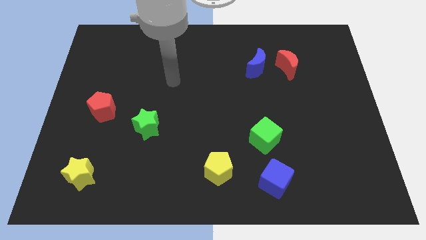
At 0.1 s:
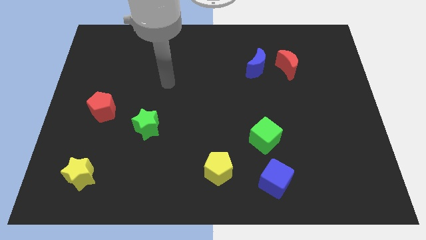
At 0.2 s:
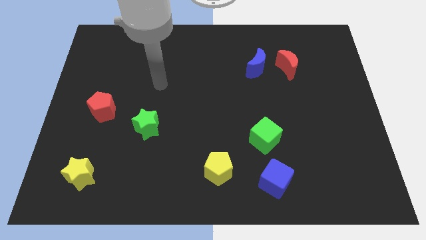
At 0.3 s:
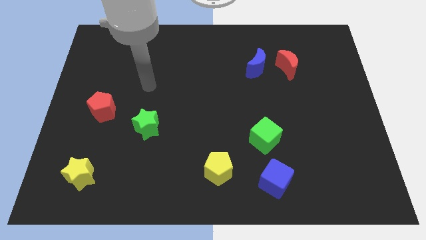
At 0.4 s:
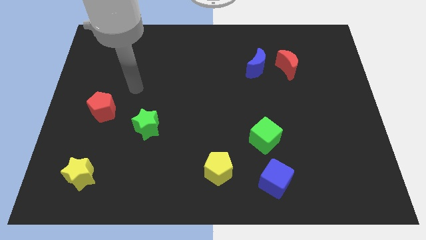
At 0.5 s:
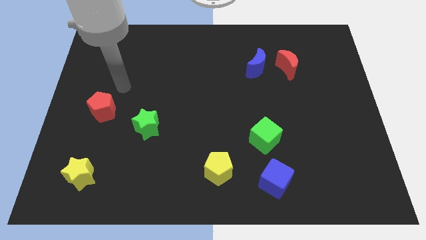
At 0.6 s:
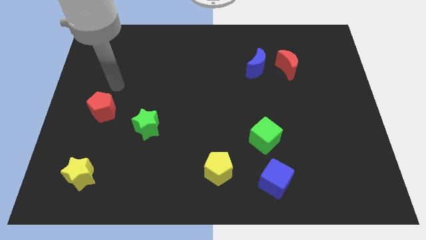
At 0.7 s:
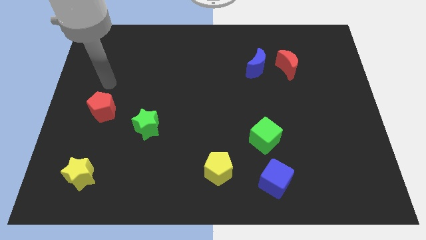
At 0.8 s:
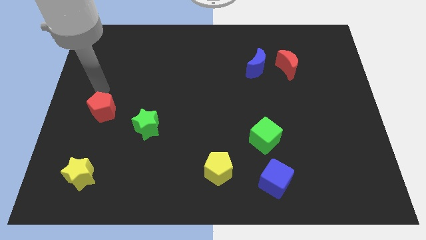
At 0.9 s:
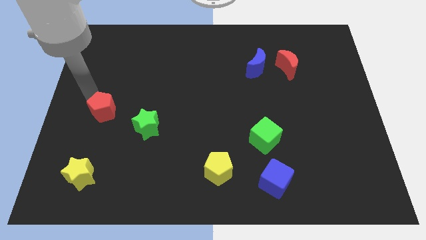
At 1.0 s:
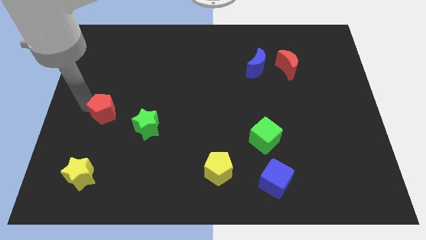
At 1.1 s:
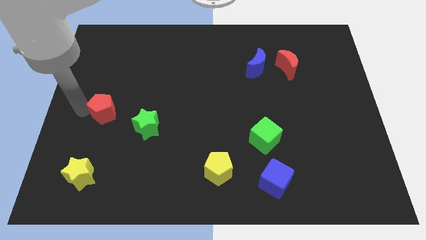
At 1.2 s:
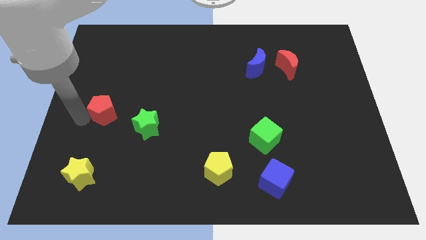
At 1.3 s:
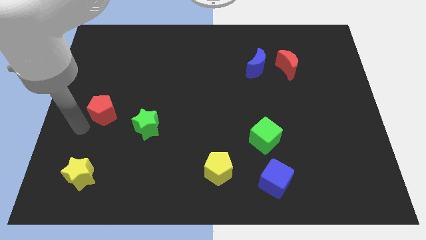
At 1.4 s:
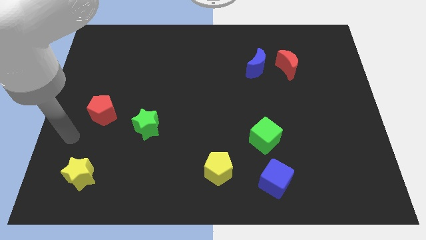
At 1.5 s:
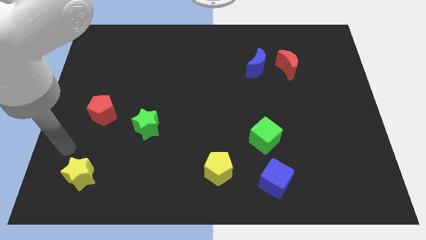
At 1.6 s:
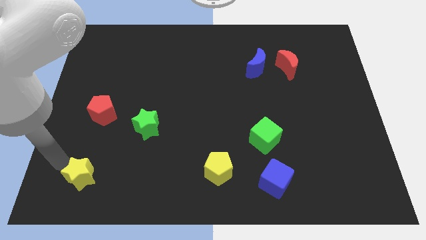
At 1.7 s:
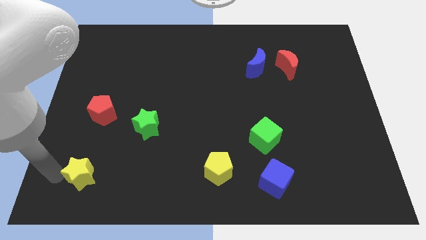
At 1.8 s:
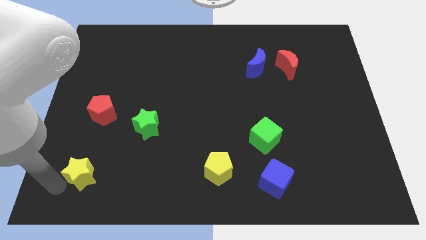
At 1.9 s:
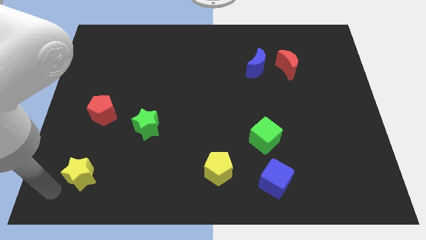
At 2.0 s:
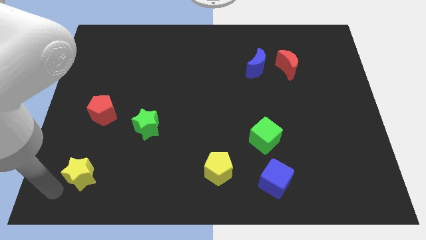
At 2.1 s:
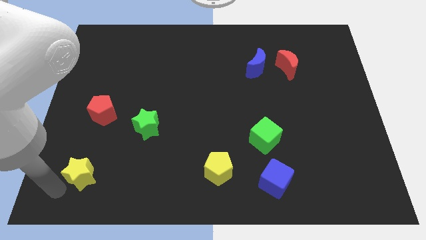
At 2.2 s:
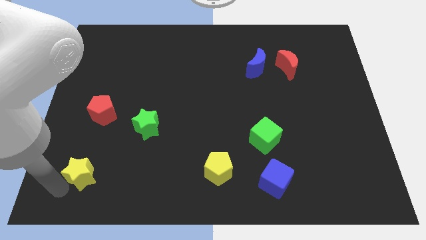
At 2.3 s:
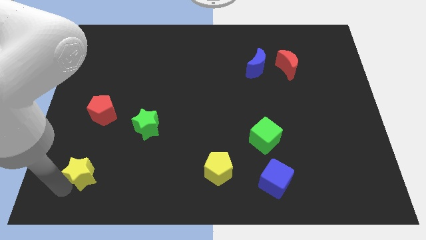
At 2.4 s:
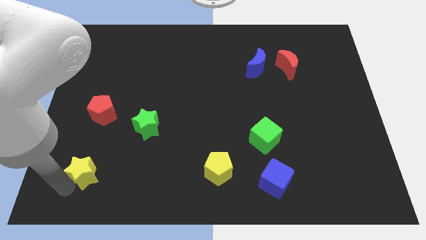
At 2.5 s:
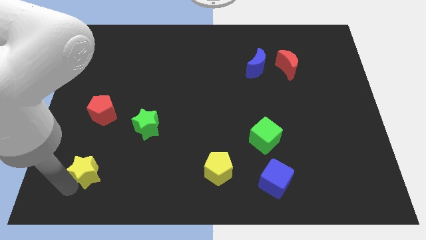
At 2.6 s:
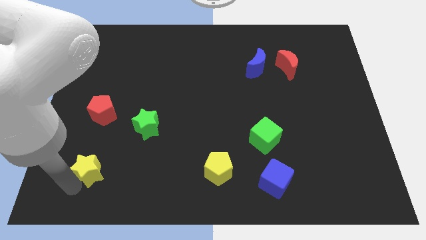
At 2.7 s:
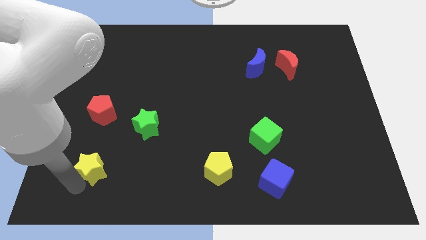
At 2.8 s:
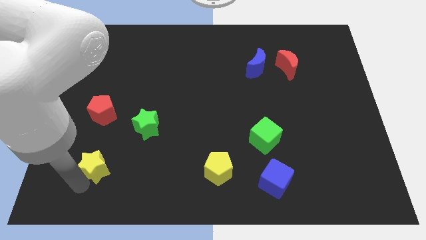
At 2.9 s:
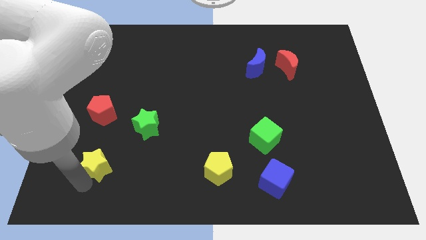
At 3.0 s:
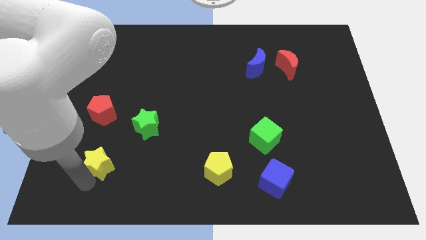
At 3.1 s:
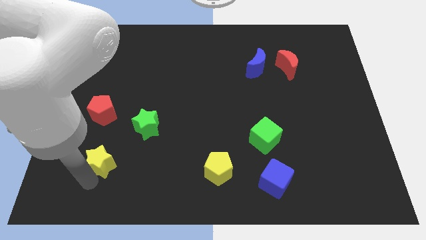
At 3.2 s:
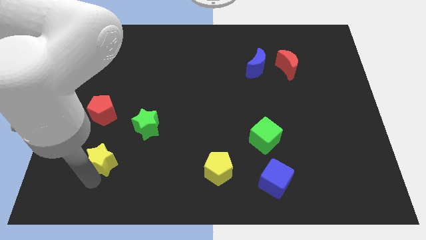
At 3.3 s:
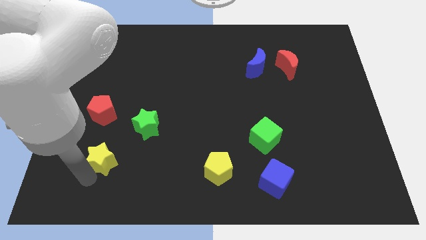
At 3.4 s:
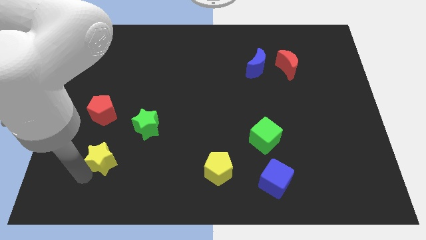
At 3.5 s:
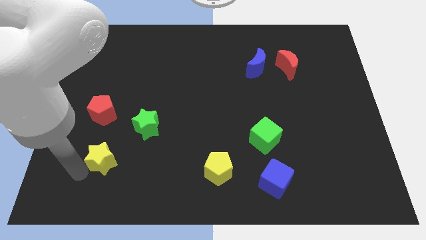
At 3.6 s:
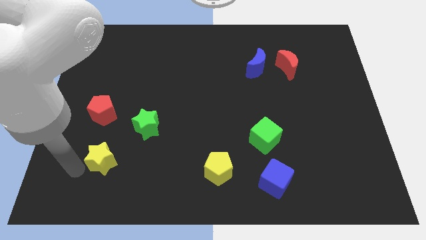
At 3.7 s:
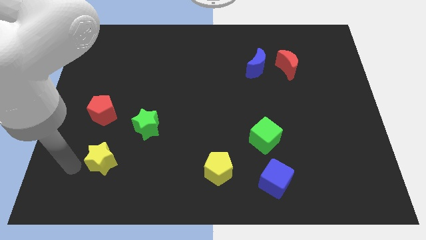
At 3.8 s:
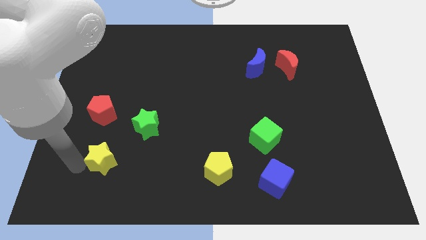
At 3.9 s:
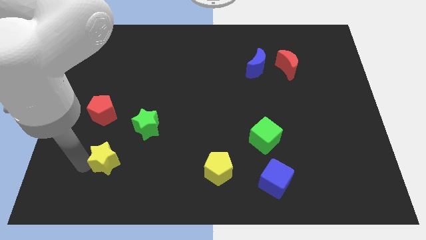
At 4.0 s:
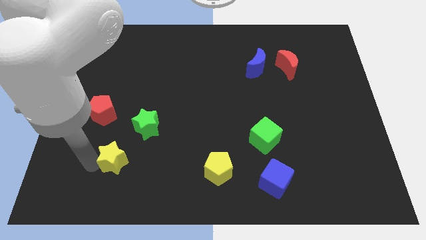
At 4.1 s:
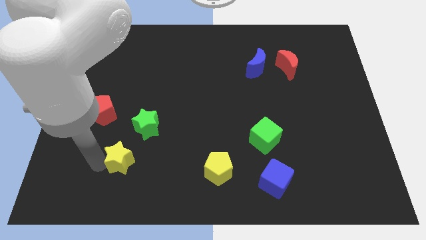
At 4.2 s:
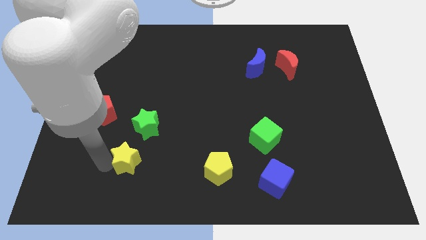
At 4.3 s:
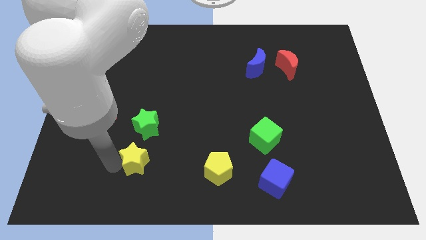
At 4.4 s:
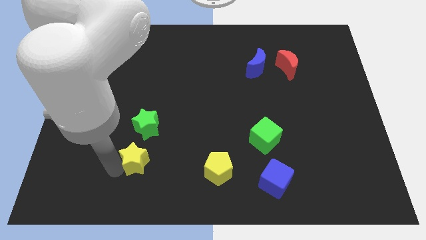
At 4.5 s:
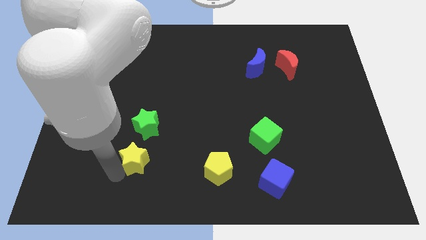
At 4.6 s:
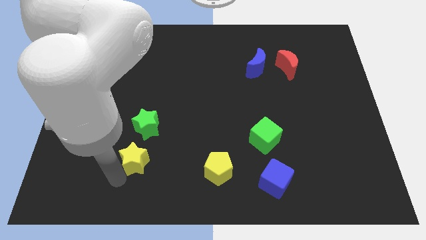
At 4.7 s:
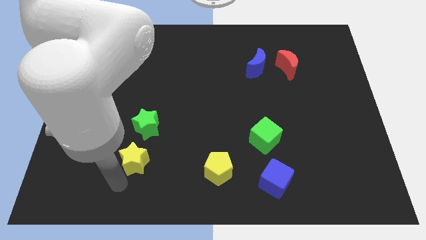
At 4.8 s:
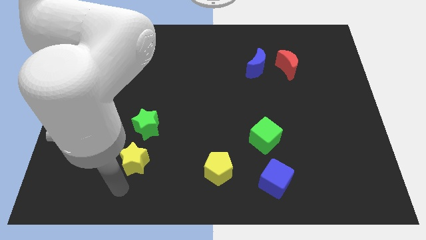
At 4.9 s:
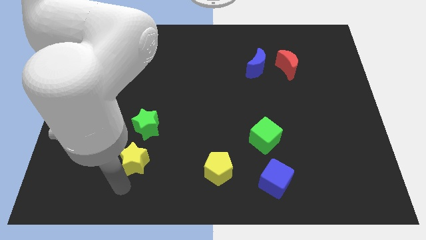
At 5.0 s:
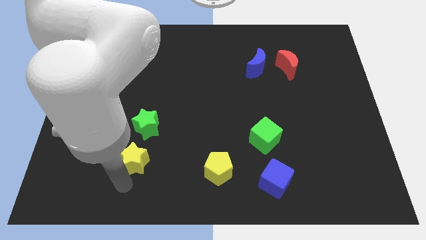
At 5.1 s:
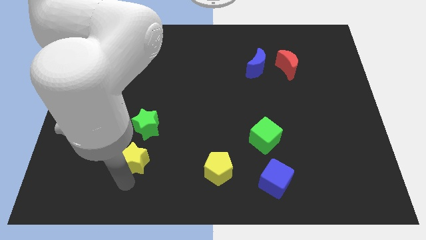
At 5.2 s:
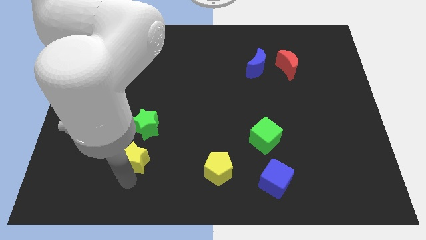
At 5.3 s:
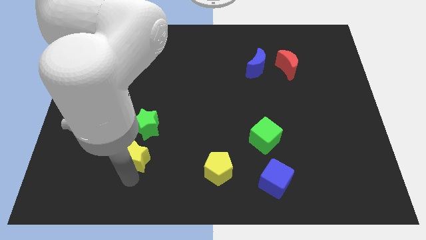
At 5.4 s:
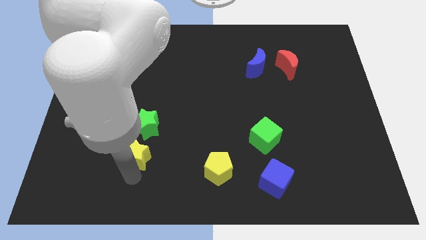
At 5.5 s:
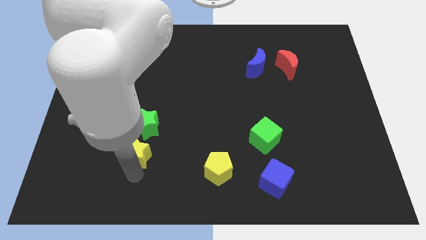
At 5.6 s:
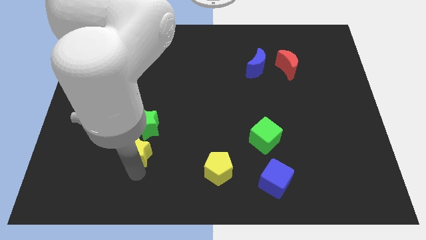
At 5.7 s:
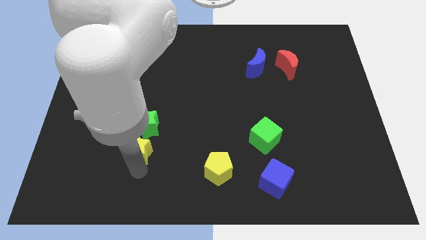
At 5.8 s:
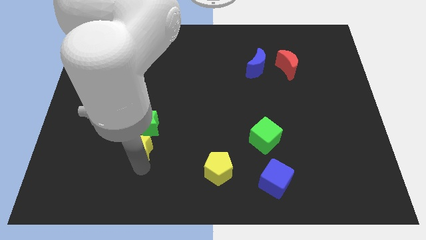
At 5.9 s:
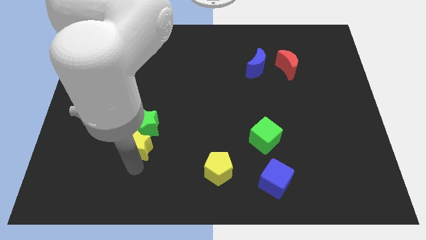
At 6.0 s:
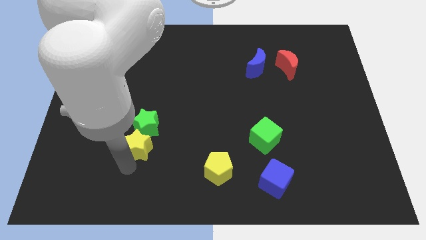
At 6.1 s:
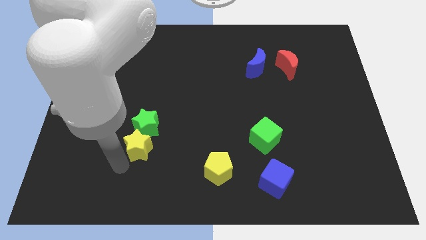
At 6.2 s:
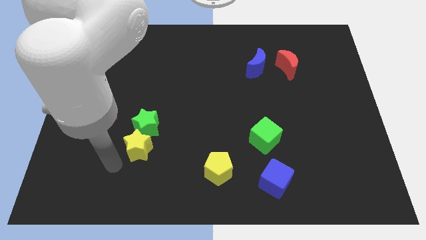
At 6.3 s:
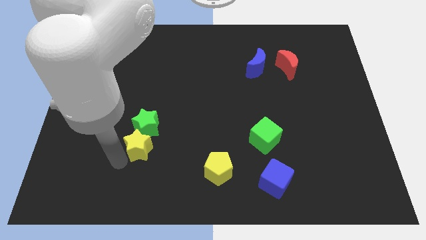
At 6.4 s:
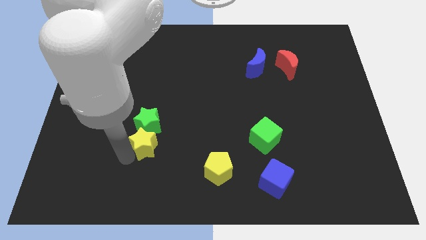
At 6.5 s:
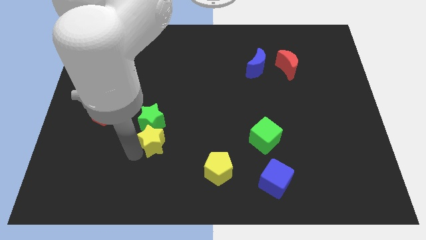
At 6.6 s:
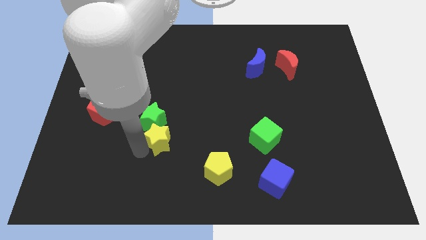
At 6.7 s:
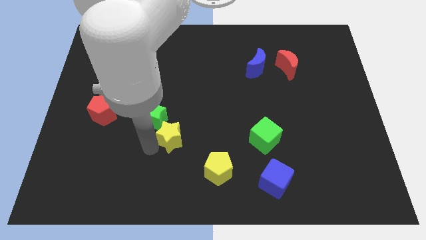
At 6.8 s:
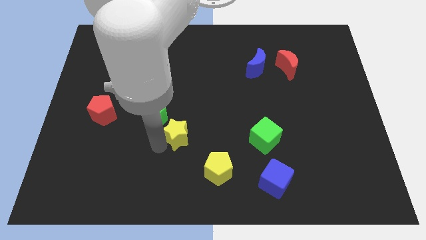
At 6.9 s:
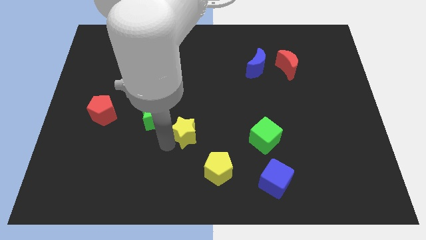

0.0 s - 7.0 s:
slide the yellow star up and then right

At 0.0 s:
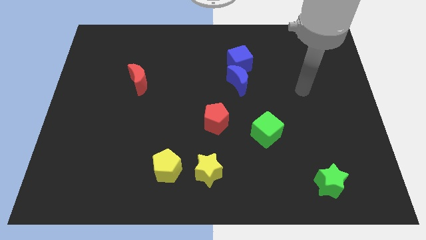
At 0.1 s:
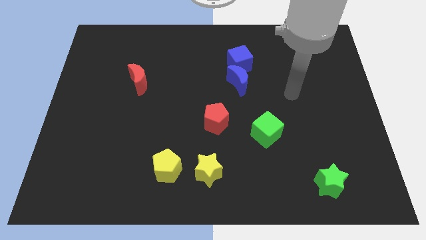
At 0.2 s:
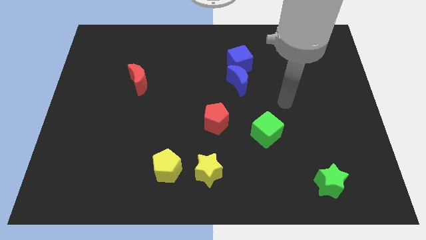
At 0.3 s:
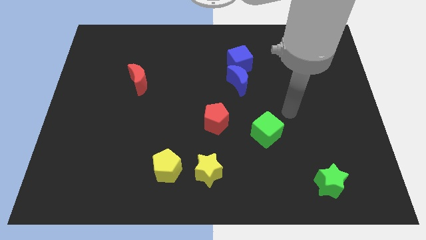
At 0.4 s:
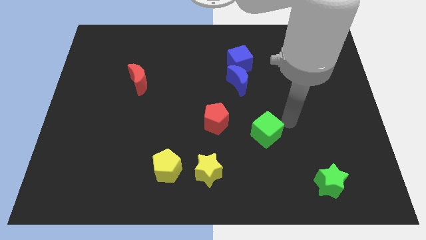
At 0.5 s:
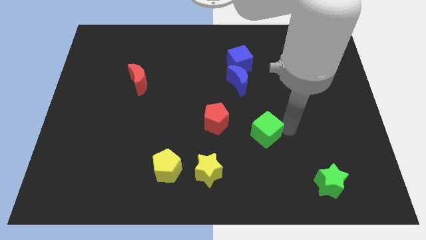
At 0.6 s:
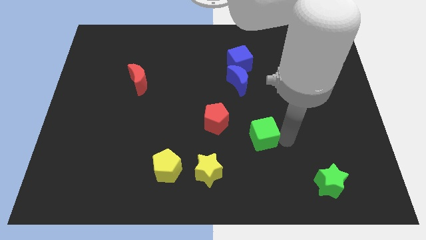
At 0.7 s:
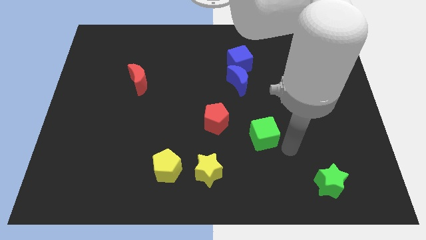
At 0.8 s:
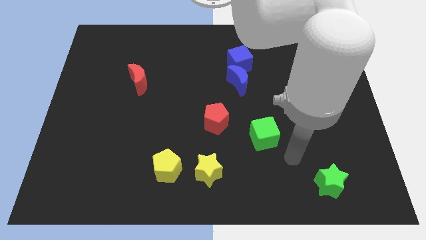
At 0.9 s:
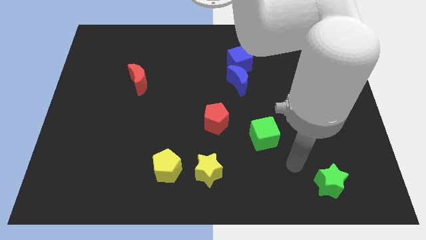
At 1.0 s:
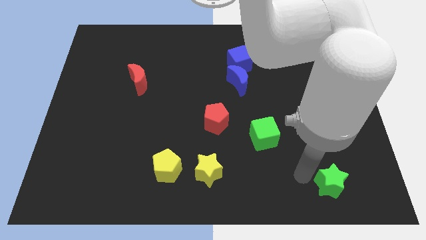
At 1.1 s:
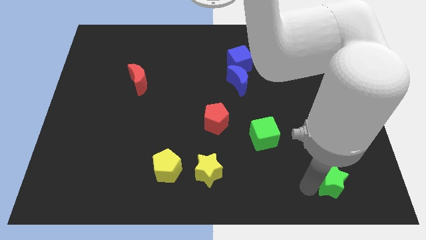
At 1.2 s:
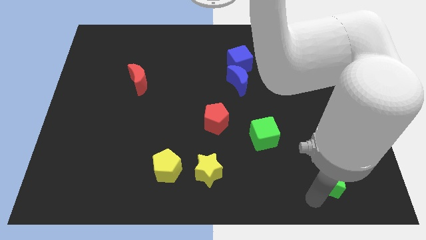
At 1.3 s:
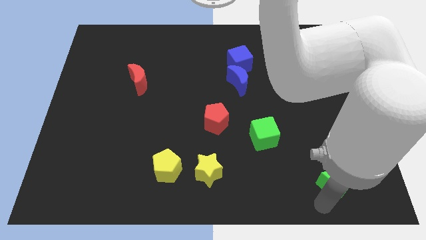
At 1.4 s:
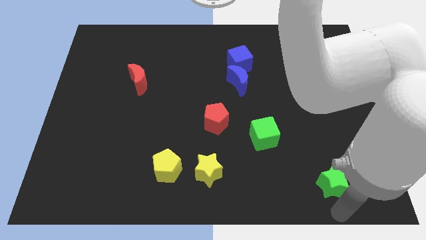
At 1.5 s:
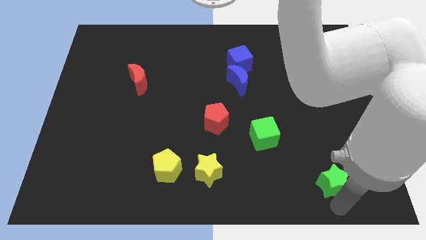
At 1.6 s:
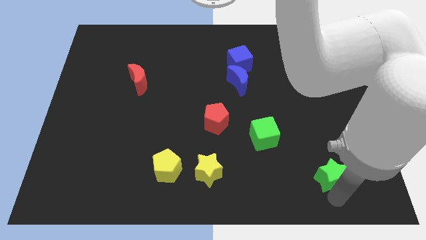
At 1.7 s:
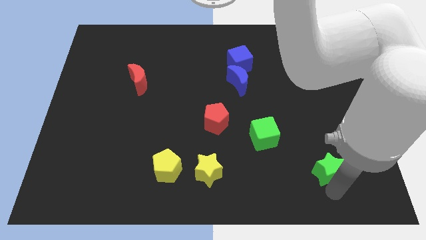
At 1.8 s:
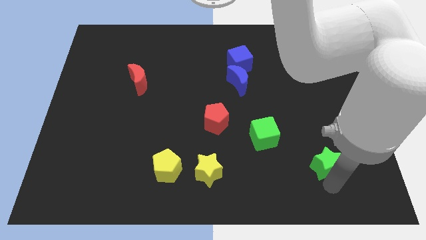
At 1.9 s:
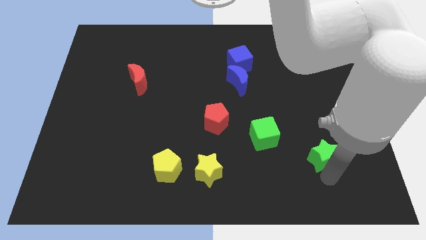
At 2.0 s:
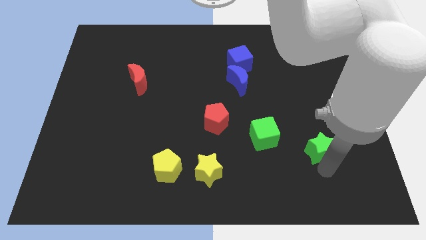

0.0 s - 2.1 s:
move the green star up slightly
